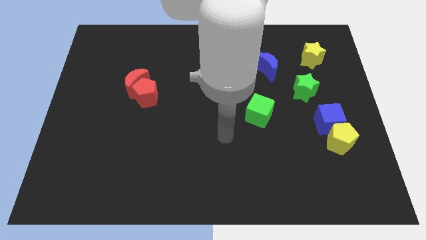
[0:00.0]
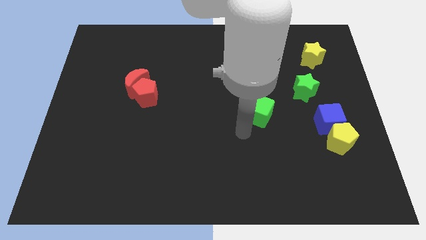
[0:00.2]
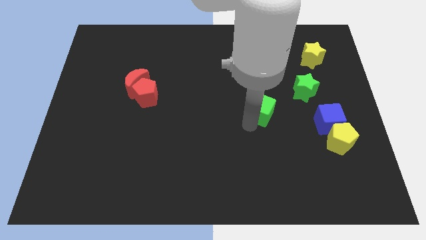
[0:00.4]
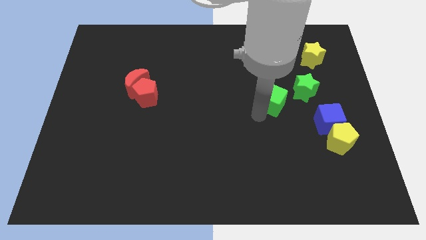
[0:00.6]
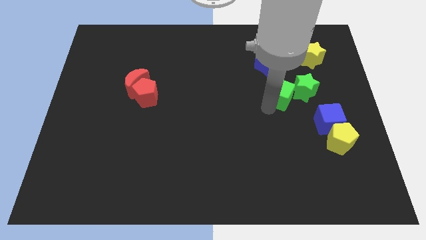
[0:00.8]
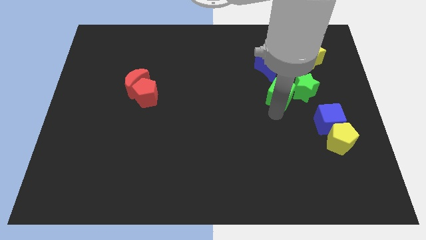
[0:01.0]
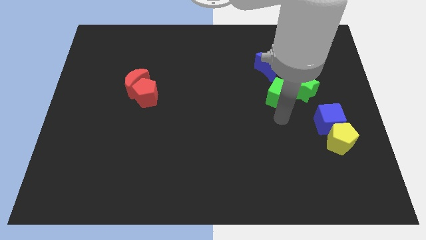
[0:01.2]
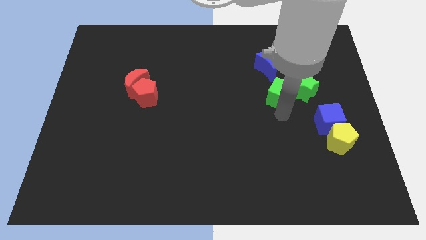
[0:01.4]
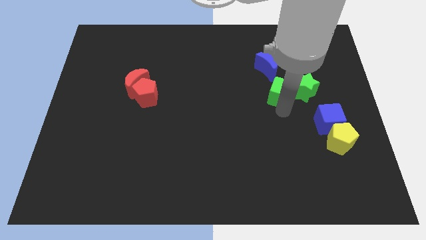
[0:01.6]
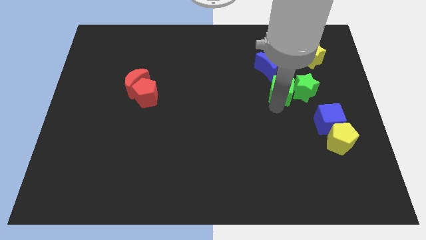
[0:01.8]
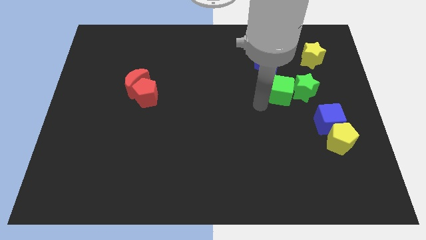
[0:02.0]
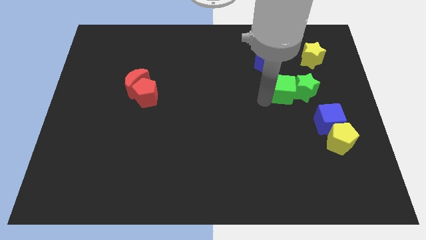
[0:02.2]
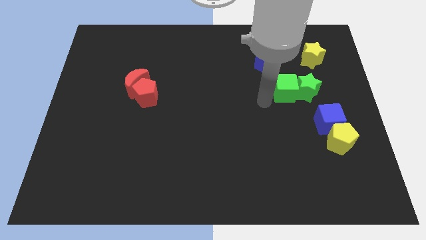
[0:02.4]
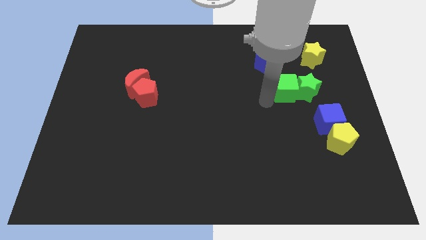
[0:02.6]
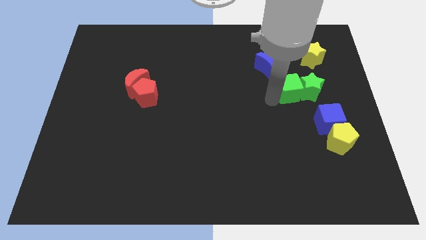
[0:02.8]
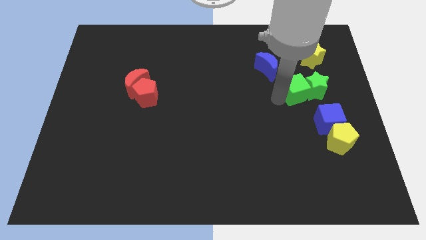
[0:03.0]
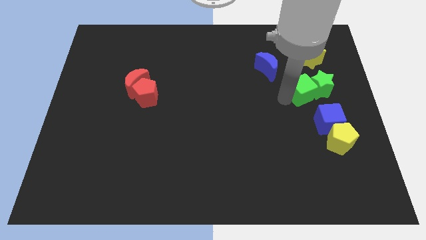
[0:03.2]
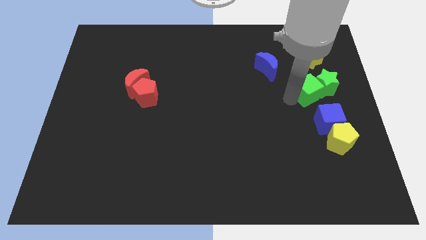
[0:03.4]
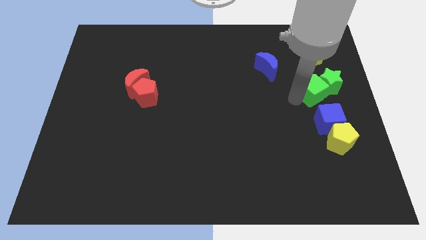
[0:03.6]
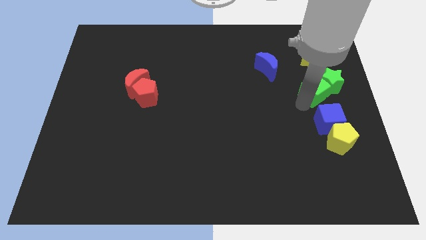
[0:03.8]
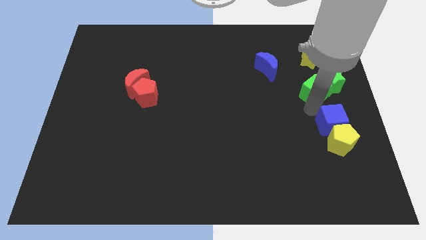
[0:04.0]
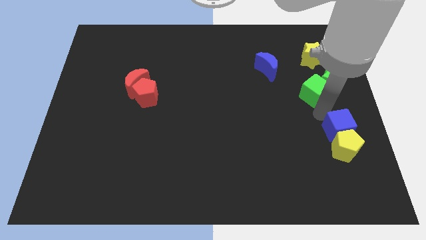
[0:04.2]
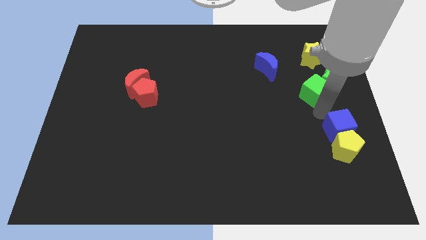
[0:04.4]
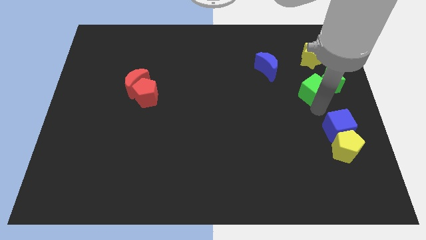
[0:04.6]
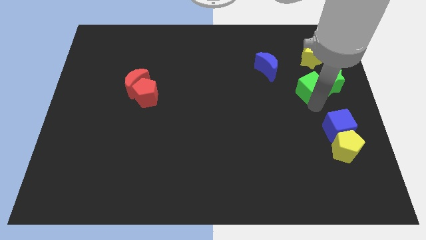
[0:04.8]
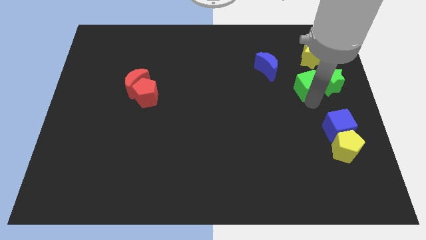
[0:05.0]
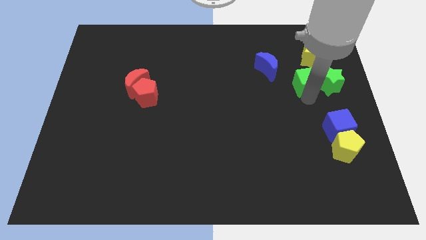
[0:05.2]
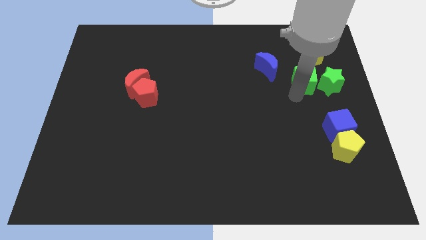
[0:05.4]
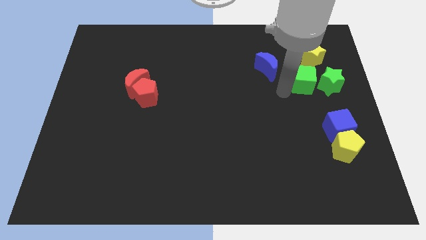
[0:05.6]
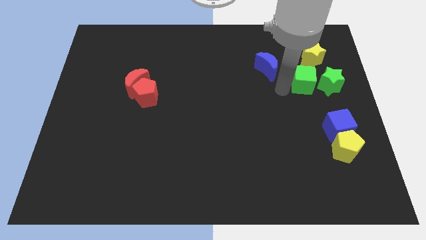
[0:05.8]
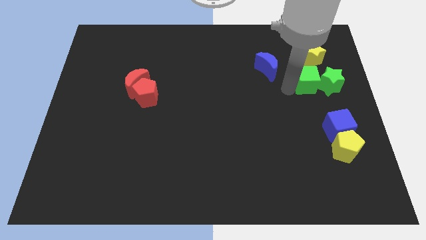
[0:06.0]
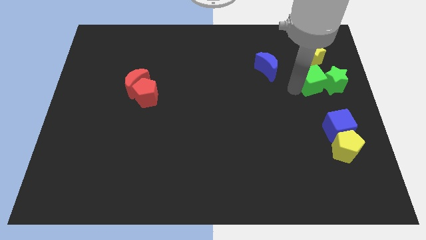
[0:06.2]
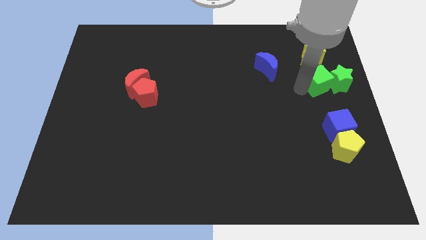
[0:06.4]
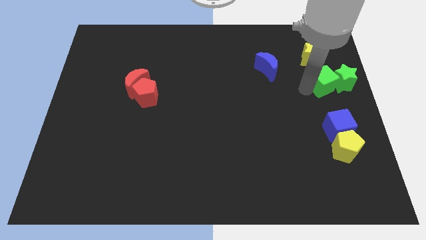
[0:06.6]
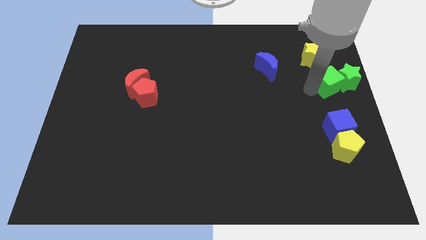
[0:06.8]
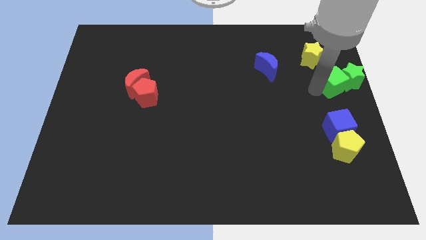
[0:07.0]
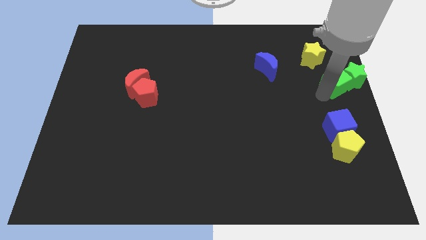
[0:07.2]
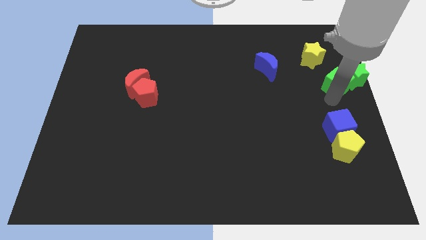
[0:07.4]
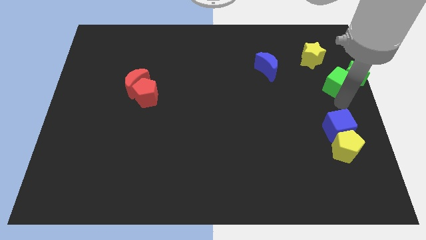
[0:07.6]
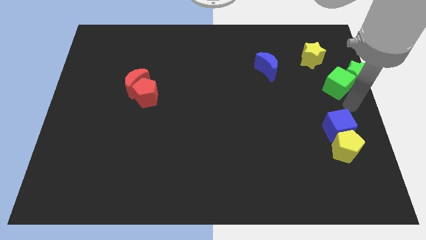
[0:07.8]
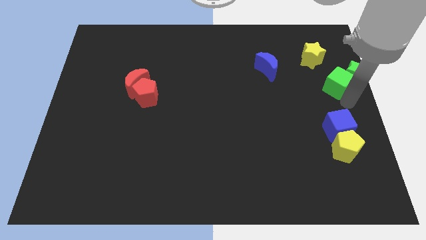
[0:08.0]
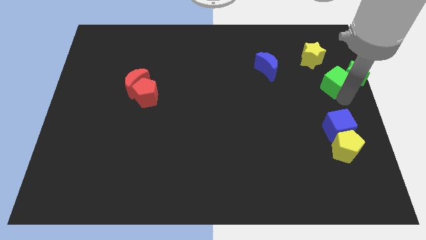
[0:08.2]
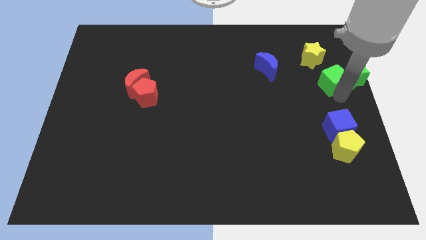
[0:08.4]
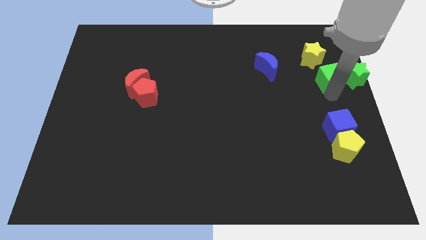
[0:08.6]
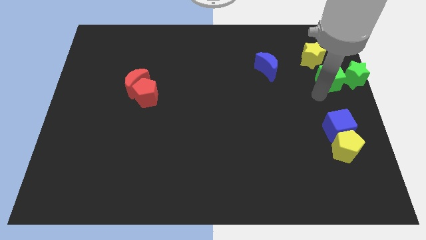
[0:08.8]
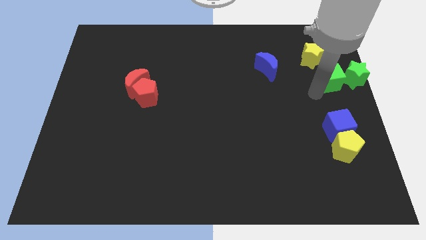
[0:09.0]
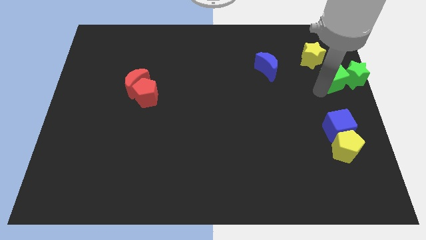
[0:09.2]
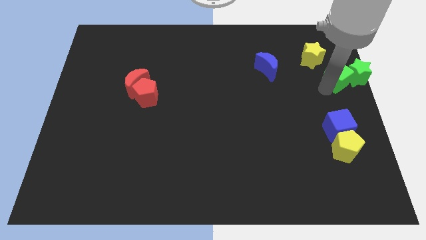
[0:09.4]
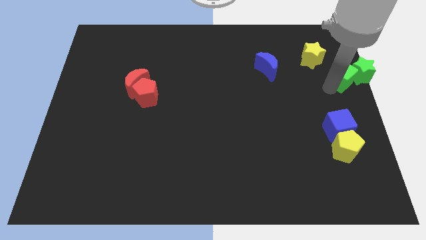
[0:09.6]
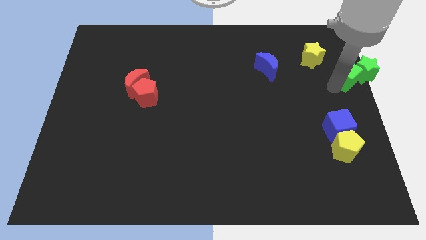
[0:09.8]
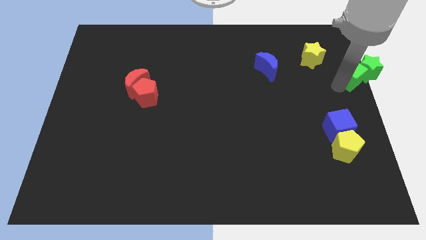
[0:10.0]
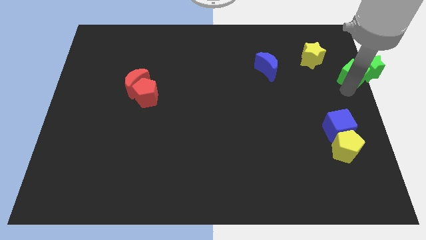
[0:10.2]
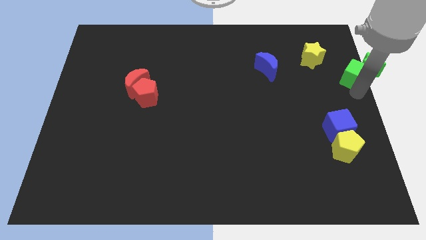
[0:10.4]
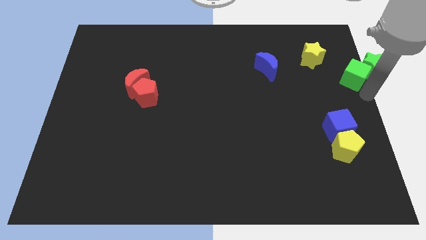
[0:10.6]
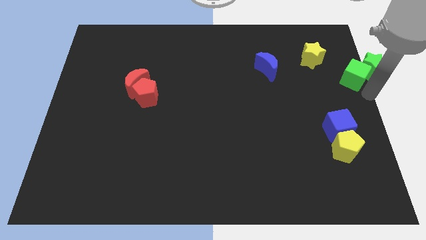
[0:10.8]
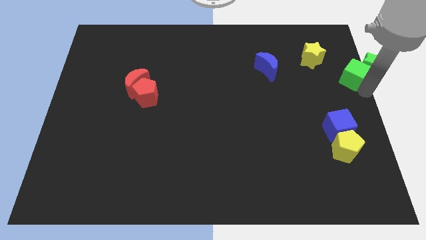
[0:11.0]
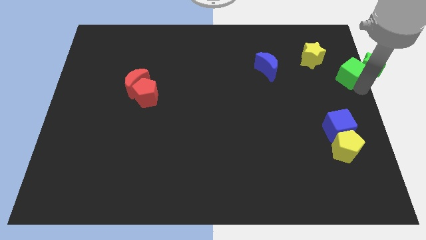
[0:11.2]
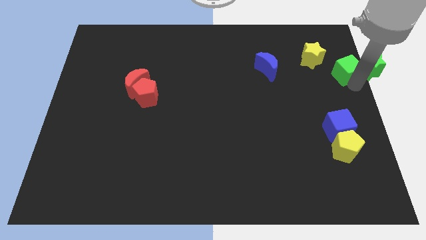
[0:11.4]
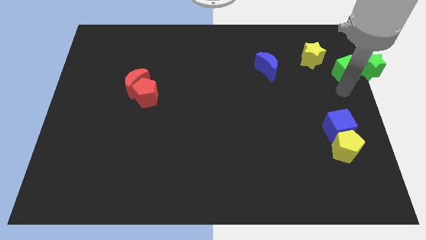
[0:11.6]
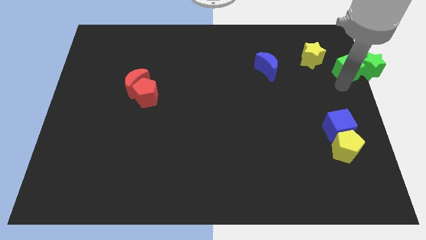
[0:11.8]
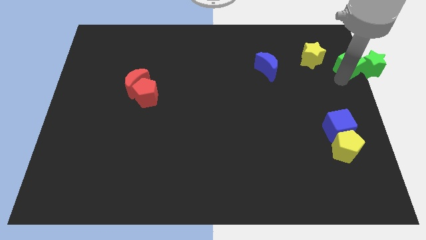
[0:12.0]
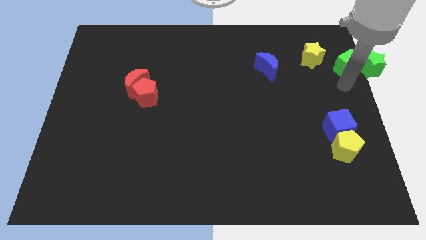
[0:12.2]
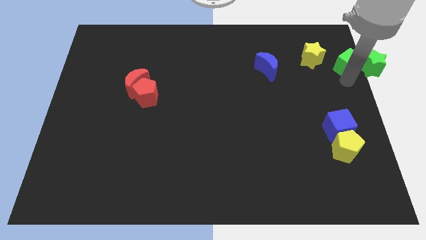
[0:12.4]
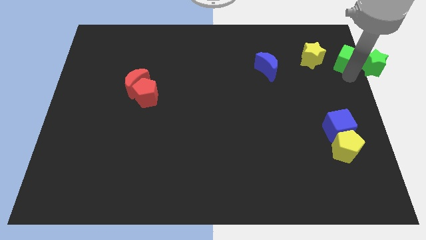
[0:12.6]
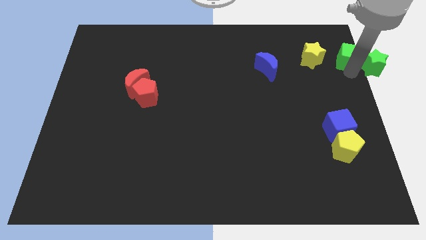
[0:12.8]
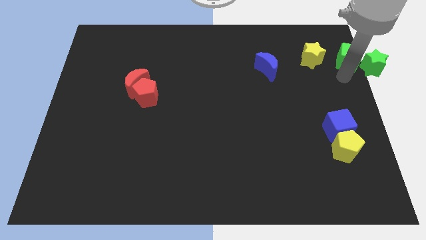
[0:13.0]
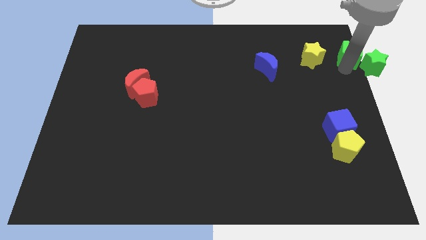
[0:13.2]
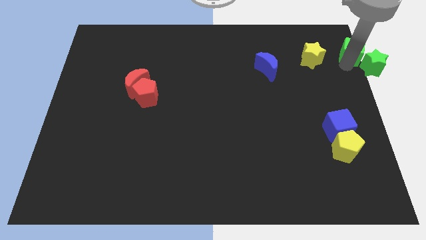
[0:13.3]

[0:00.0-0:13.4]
slide the green cube to the upper right corner

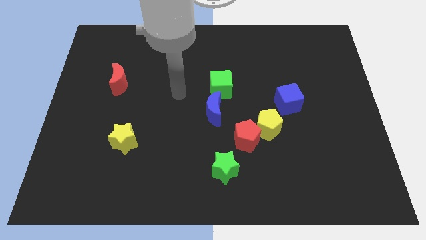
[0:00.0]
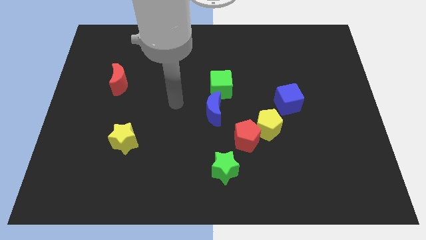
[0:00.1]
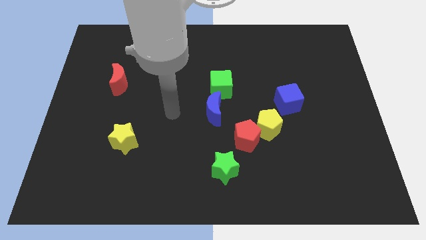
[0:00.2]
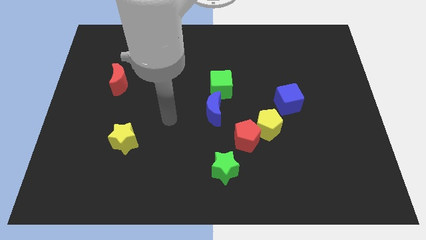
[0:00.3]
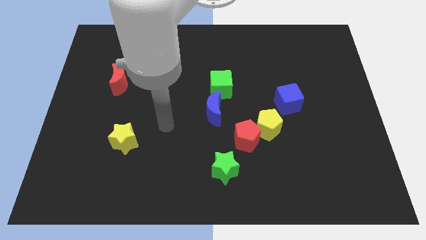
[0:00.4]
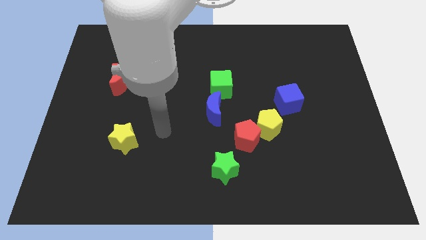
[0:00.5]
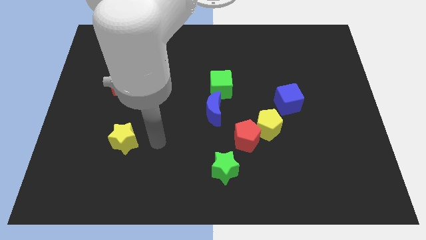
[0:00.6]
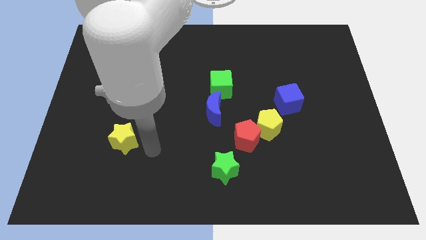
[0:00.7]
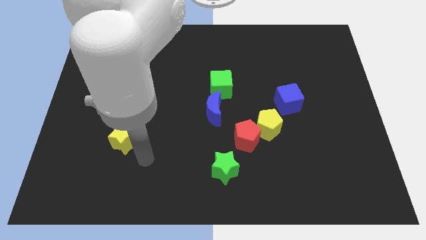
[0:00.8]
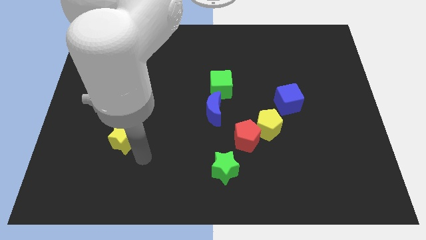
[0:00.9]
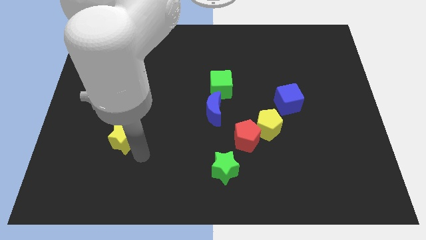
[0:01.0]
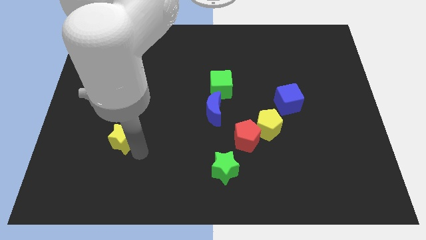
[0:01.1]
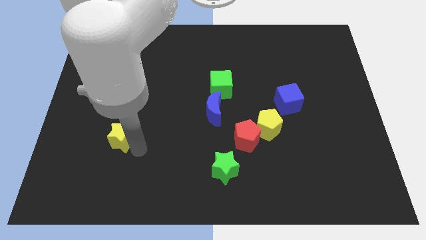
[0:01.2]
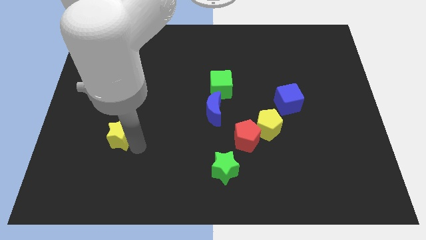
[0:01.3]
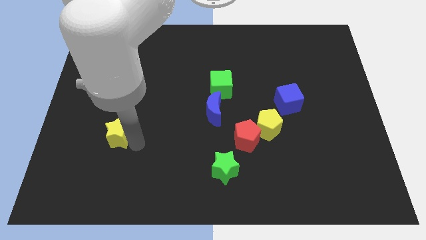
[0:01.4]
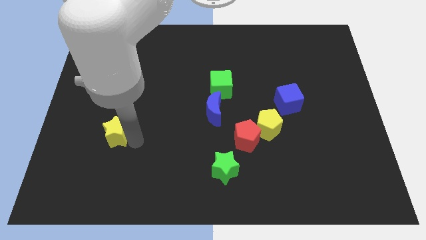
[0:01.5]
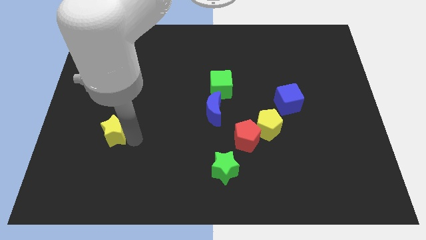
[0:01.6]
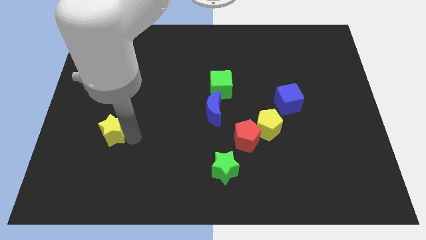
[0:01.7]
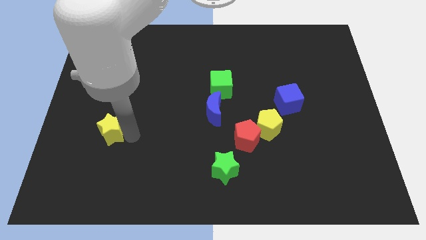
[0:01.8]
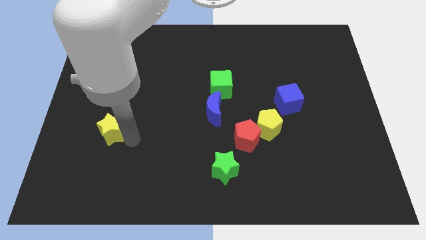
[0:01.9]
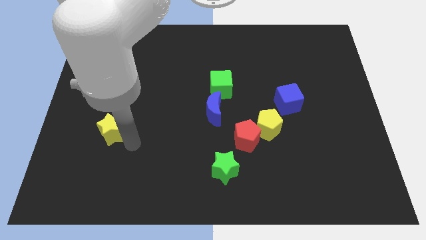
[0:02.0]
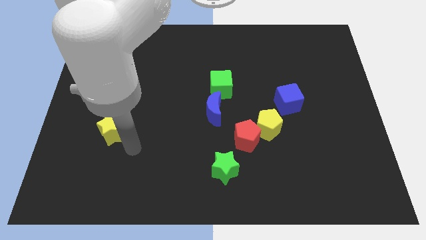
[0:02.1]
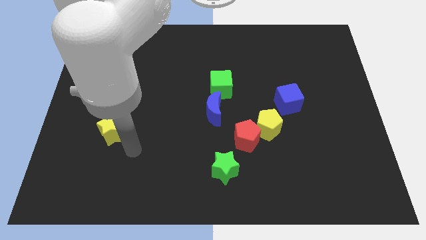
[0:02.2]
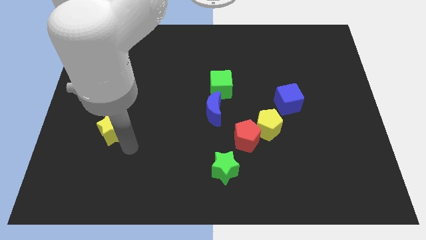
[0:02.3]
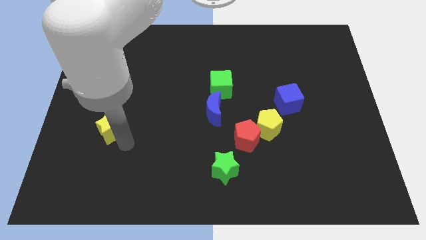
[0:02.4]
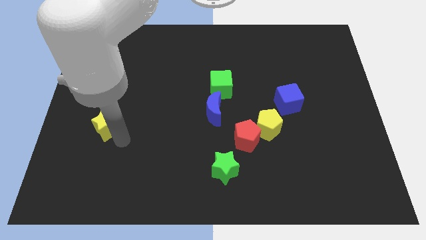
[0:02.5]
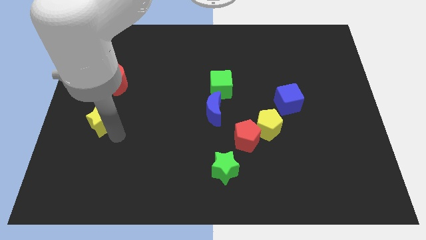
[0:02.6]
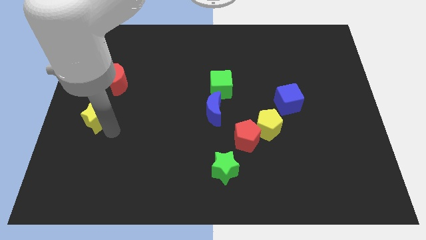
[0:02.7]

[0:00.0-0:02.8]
slide the yellow star to the left side of the board
